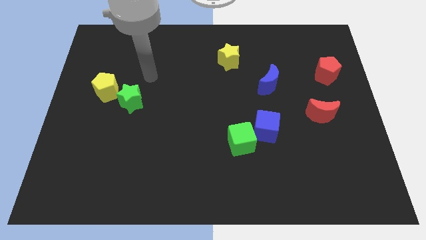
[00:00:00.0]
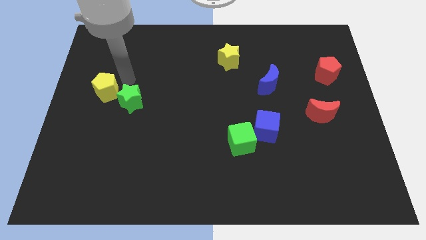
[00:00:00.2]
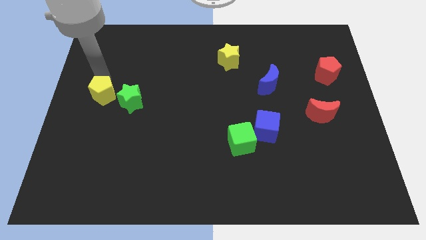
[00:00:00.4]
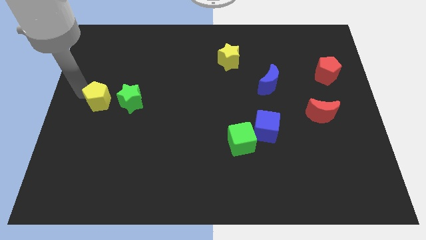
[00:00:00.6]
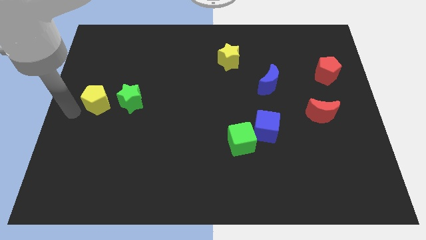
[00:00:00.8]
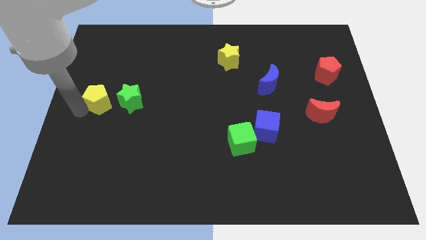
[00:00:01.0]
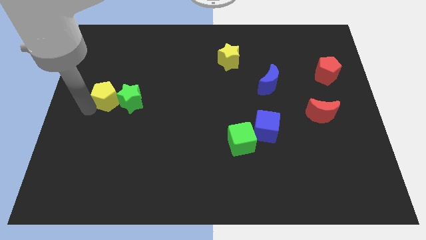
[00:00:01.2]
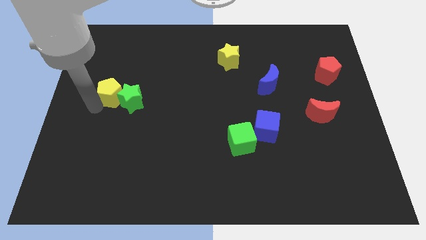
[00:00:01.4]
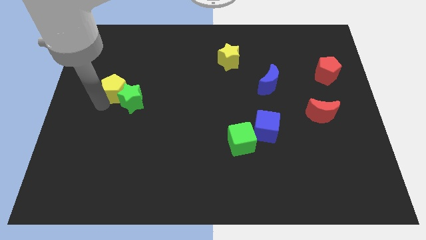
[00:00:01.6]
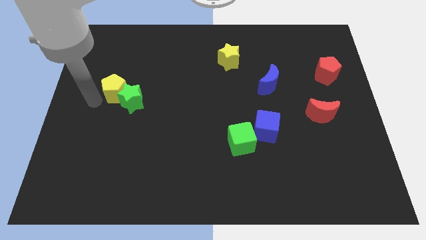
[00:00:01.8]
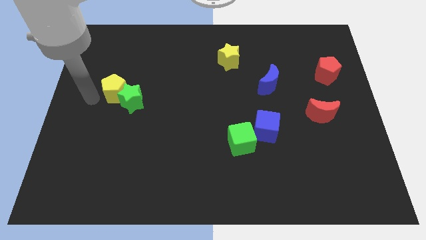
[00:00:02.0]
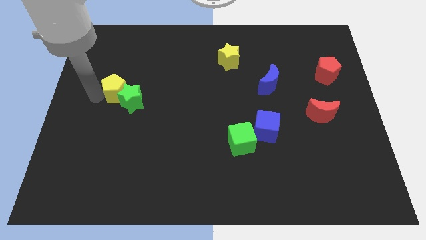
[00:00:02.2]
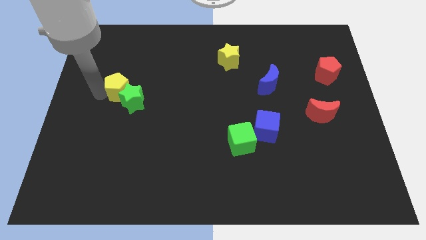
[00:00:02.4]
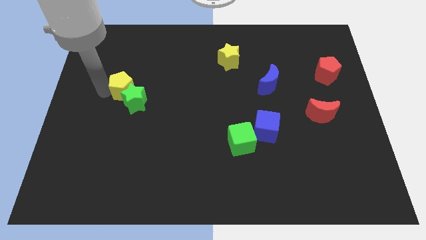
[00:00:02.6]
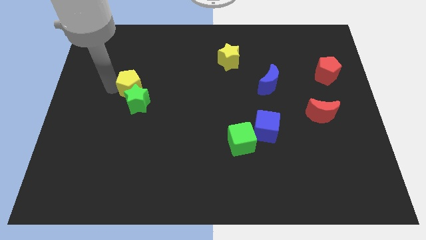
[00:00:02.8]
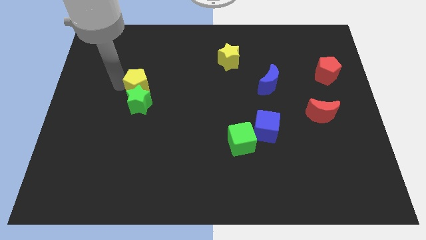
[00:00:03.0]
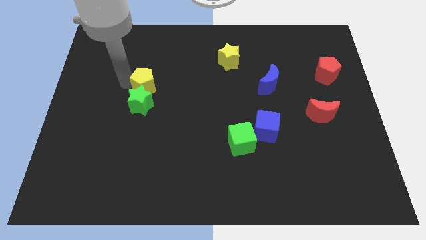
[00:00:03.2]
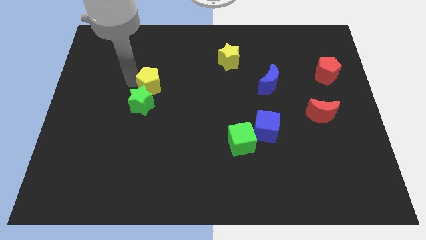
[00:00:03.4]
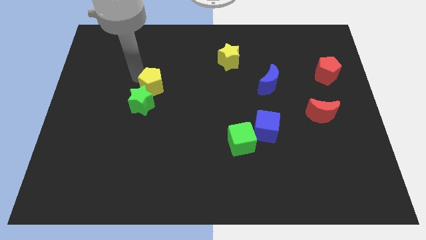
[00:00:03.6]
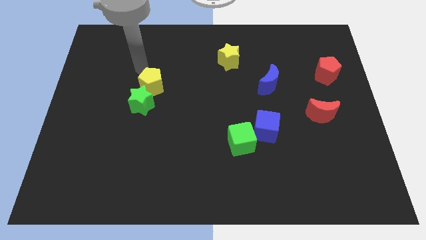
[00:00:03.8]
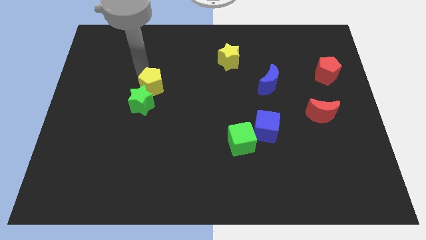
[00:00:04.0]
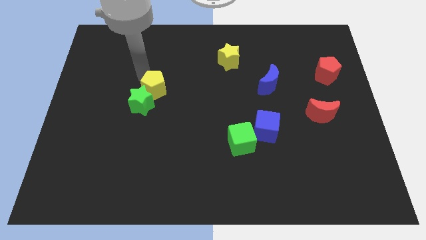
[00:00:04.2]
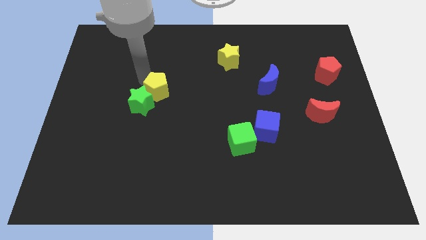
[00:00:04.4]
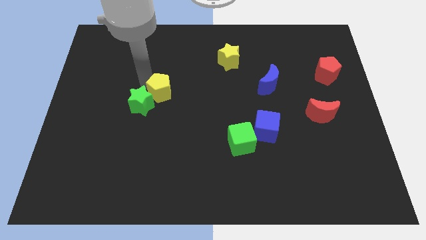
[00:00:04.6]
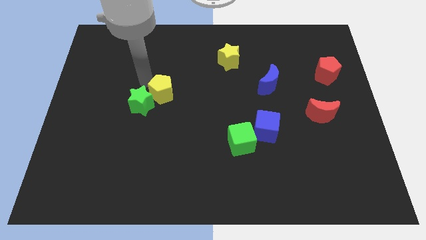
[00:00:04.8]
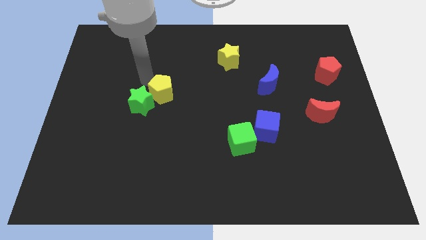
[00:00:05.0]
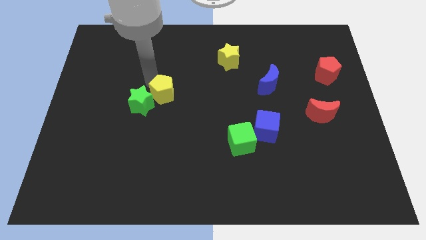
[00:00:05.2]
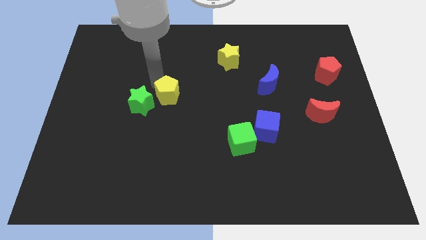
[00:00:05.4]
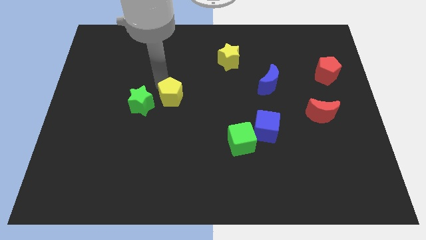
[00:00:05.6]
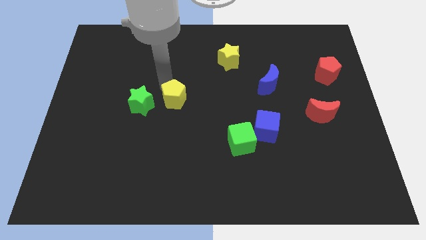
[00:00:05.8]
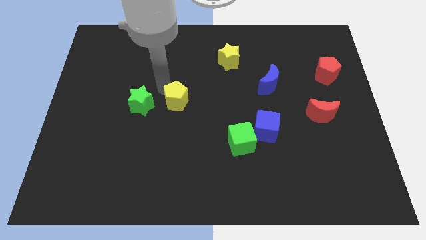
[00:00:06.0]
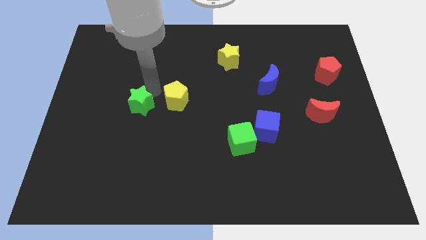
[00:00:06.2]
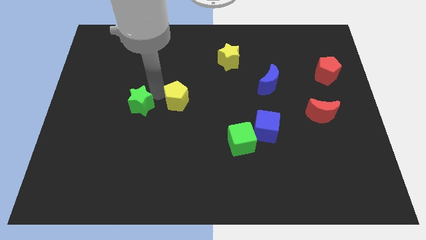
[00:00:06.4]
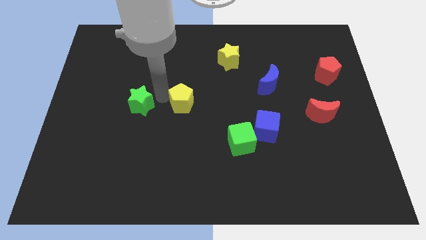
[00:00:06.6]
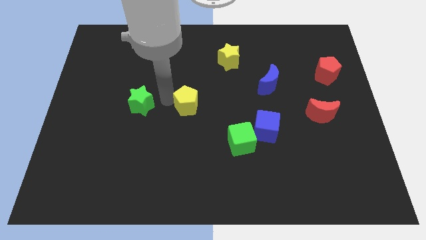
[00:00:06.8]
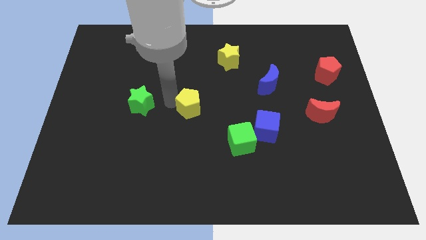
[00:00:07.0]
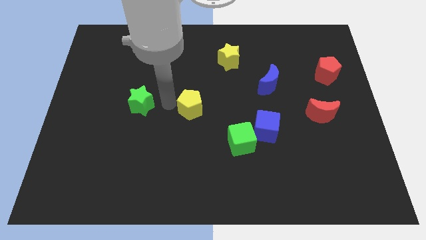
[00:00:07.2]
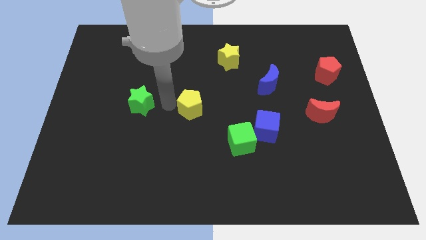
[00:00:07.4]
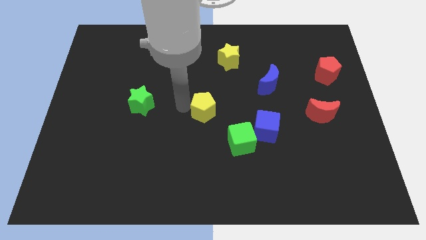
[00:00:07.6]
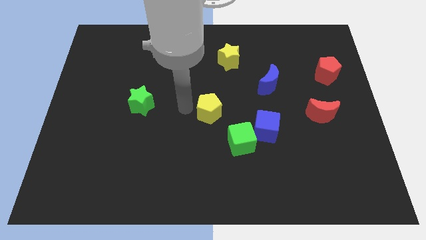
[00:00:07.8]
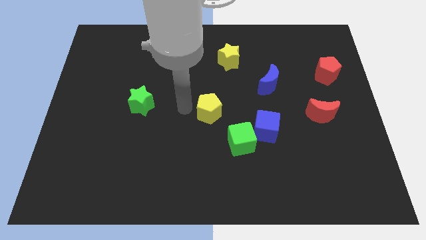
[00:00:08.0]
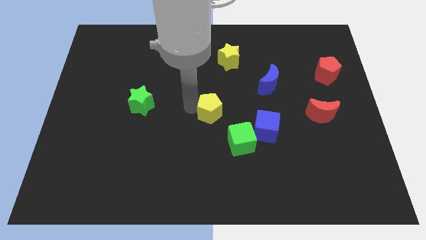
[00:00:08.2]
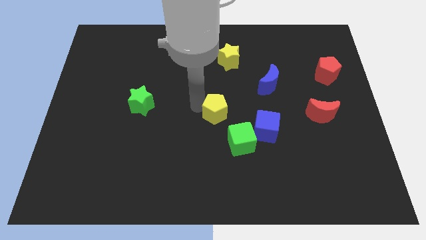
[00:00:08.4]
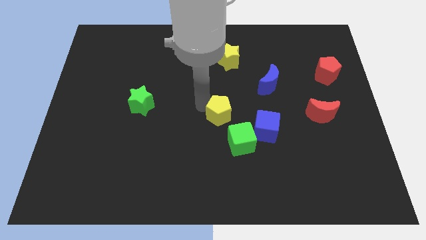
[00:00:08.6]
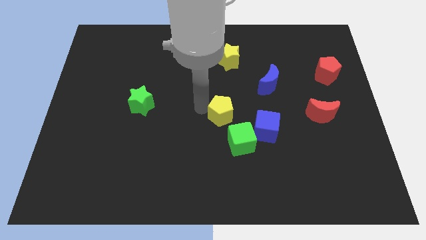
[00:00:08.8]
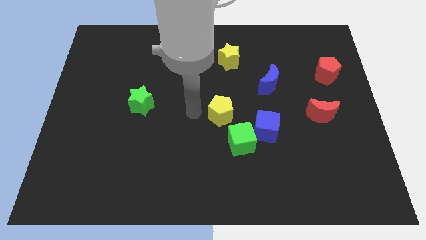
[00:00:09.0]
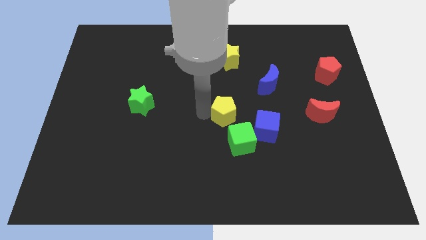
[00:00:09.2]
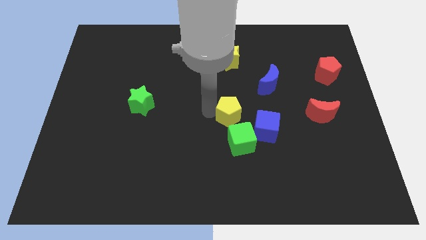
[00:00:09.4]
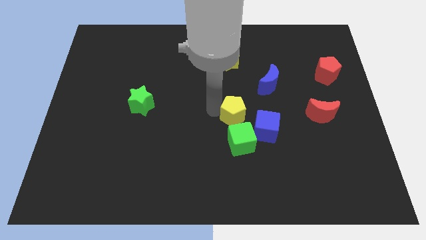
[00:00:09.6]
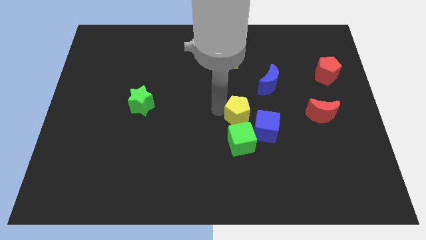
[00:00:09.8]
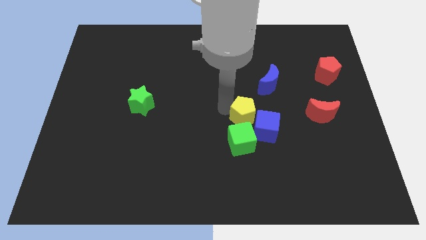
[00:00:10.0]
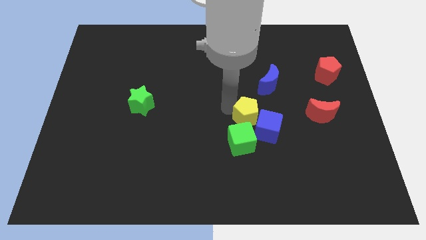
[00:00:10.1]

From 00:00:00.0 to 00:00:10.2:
slide the yellow pentagon close to the blue cube

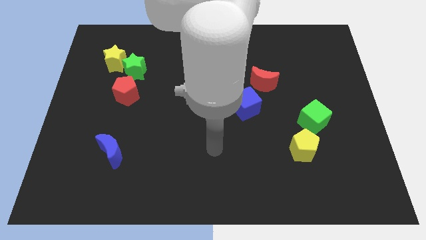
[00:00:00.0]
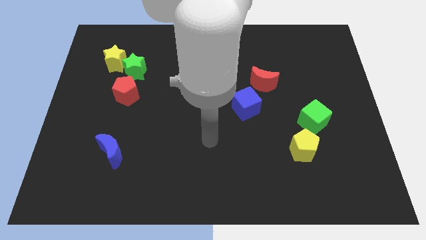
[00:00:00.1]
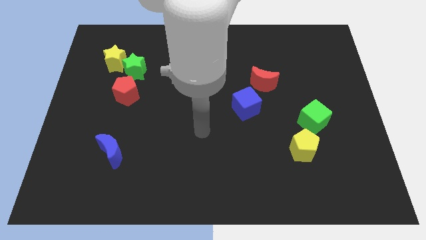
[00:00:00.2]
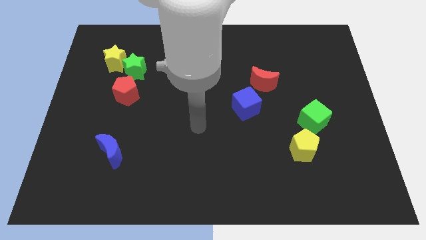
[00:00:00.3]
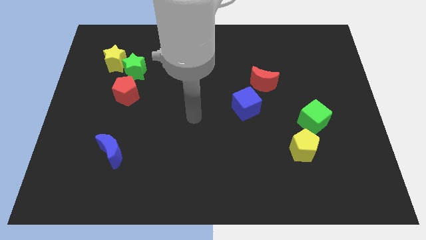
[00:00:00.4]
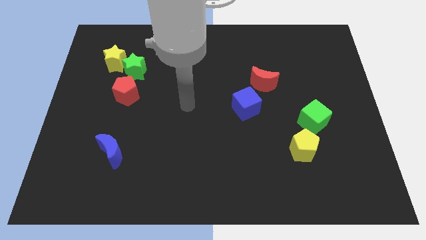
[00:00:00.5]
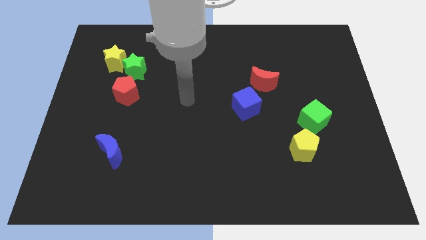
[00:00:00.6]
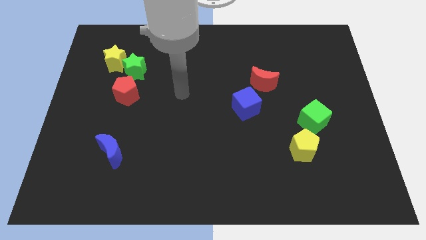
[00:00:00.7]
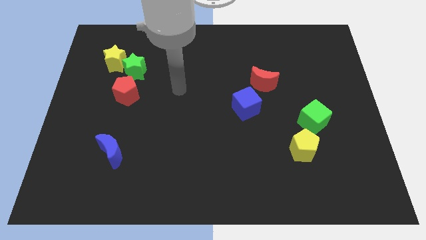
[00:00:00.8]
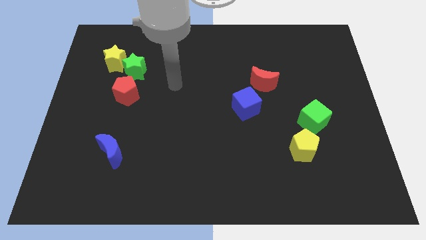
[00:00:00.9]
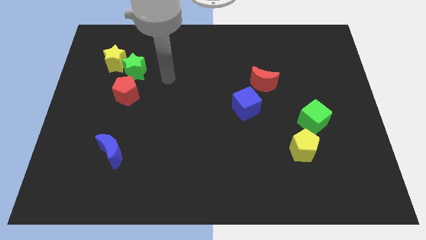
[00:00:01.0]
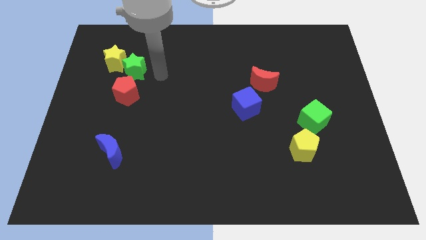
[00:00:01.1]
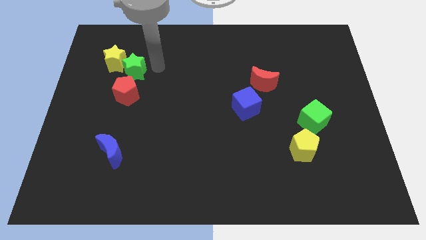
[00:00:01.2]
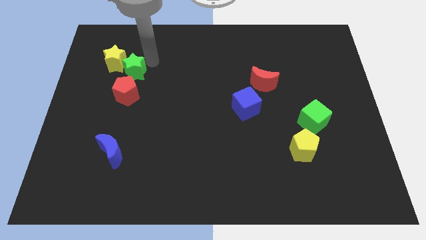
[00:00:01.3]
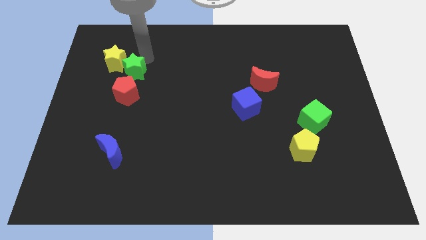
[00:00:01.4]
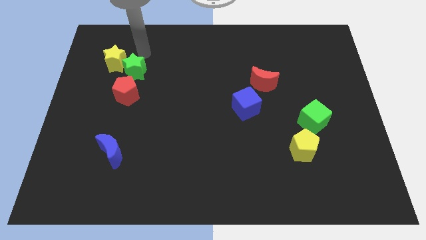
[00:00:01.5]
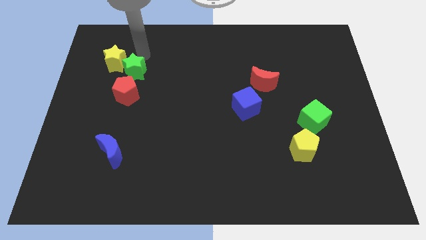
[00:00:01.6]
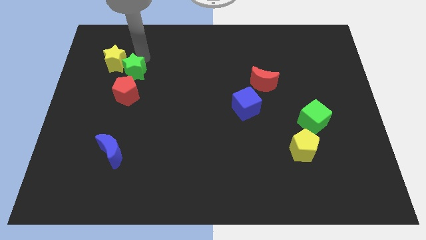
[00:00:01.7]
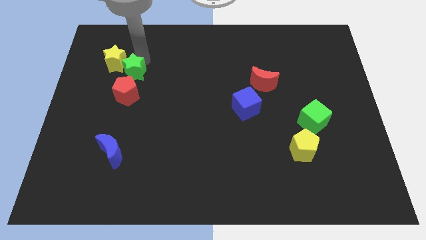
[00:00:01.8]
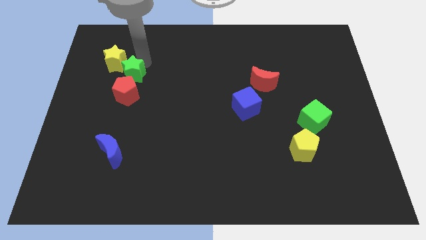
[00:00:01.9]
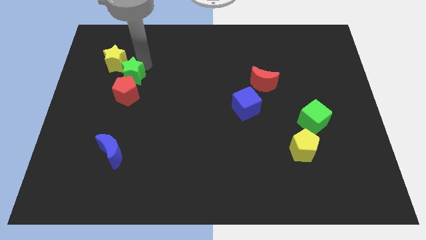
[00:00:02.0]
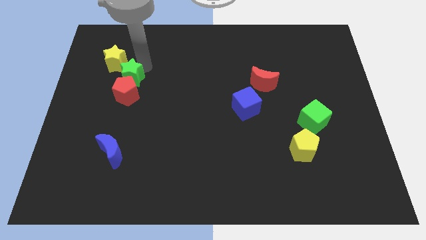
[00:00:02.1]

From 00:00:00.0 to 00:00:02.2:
push the green star next to the red pentagon
